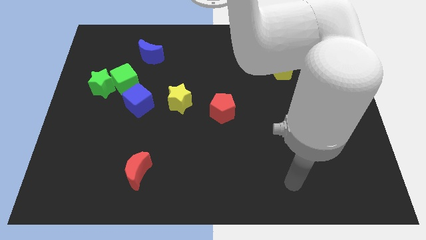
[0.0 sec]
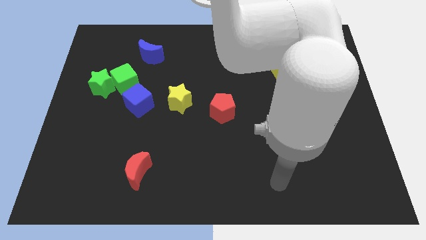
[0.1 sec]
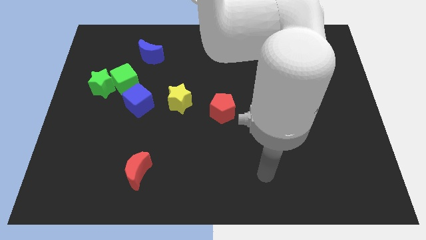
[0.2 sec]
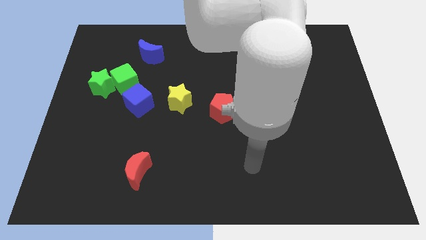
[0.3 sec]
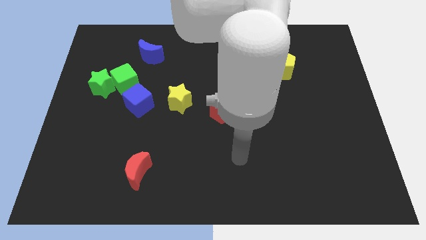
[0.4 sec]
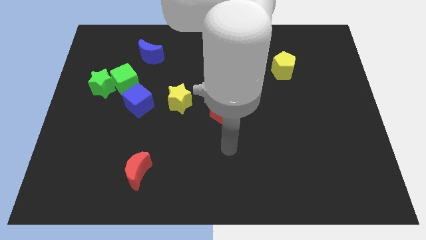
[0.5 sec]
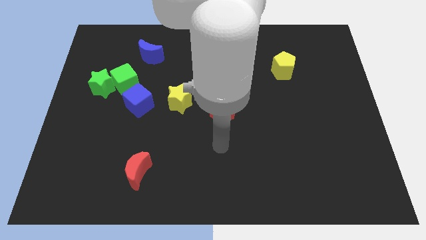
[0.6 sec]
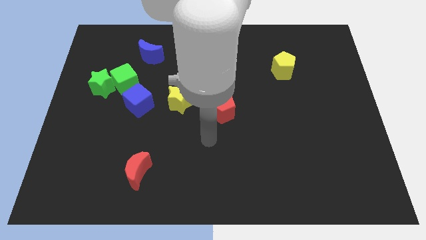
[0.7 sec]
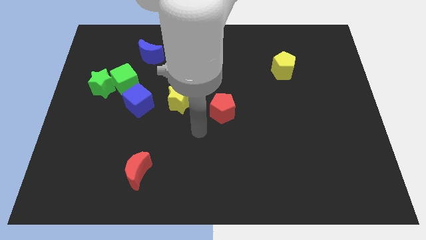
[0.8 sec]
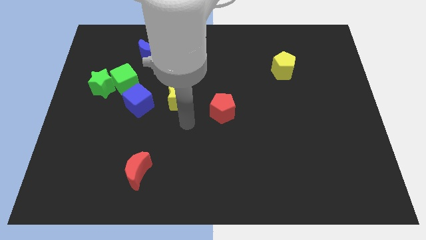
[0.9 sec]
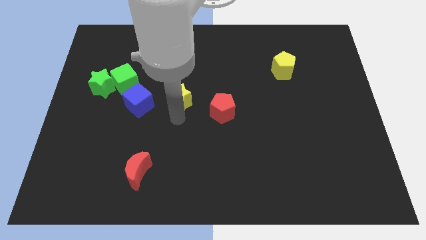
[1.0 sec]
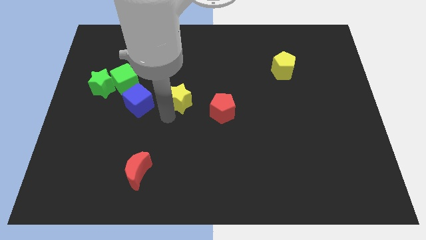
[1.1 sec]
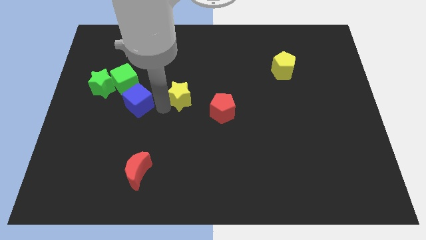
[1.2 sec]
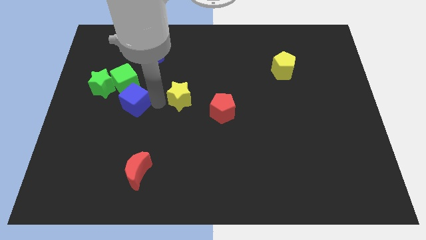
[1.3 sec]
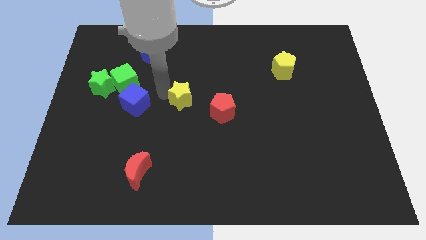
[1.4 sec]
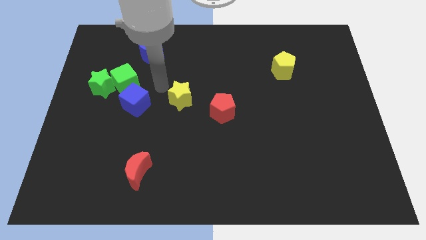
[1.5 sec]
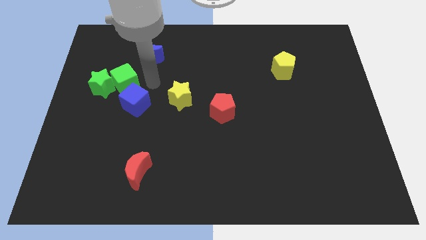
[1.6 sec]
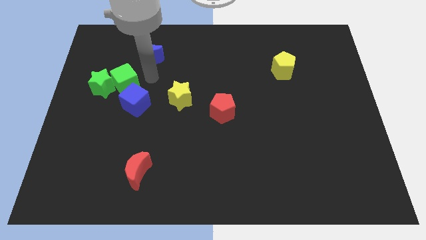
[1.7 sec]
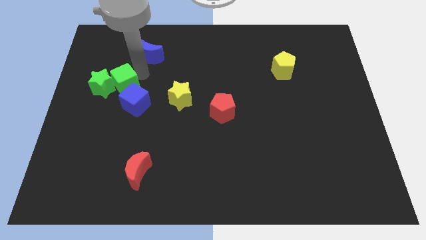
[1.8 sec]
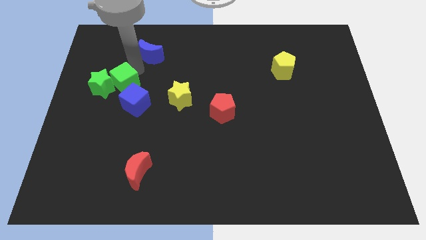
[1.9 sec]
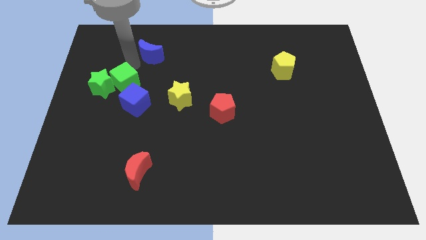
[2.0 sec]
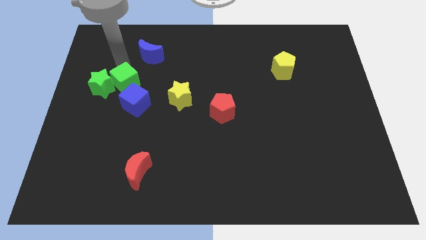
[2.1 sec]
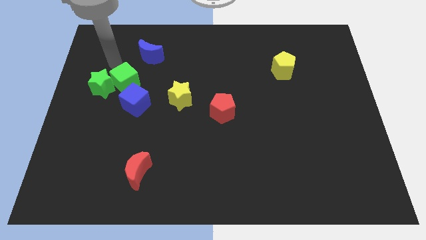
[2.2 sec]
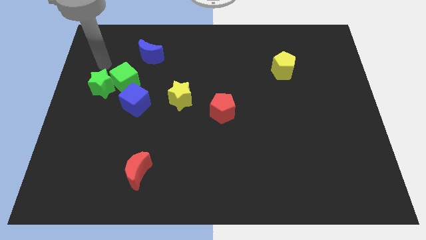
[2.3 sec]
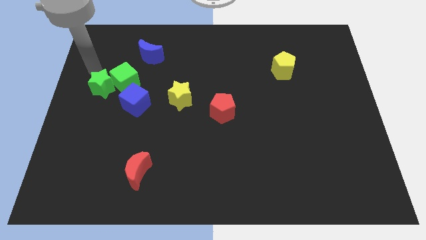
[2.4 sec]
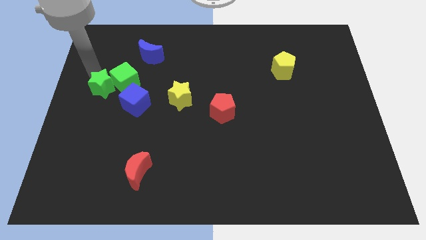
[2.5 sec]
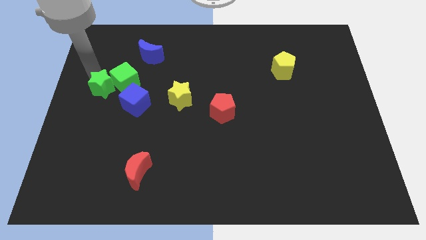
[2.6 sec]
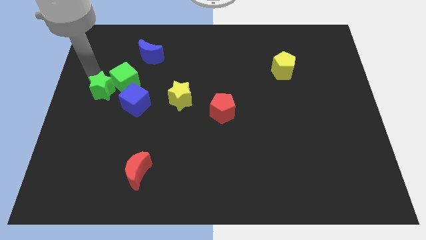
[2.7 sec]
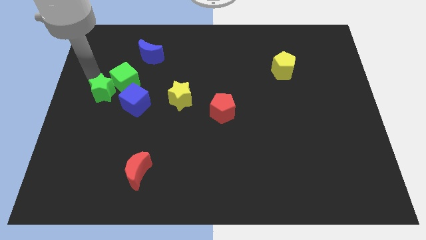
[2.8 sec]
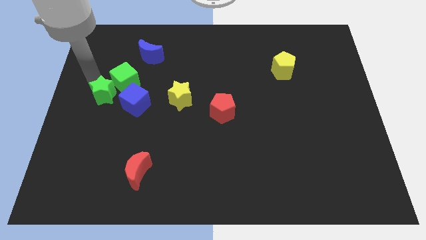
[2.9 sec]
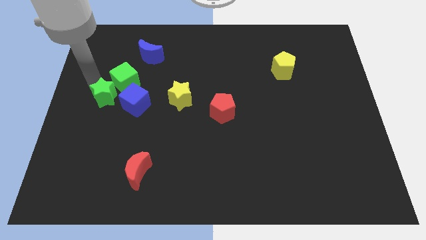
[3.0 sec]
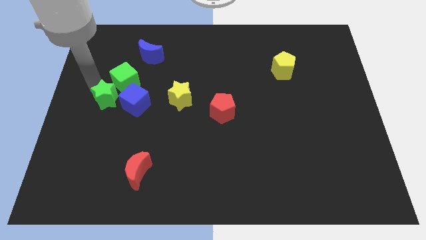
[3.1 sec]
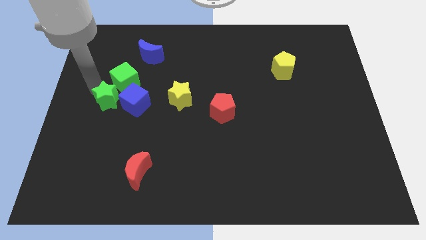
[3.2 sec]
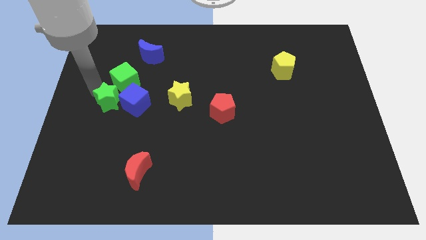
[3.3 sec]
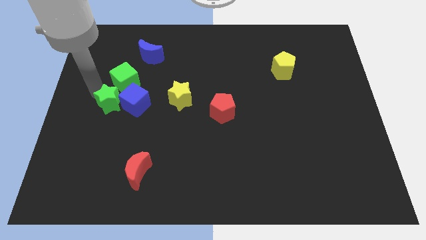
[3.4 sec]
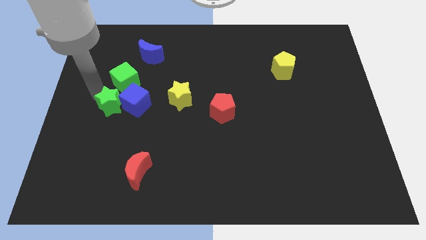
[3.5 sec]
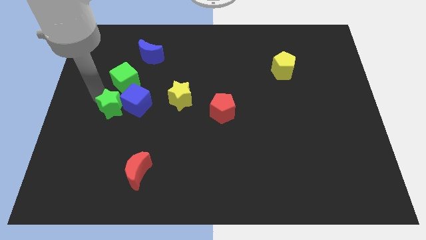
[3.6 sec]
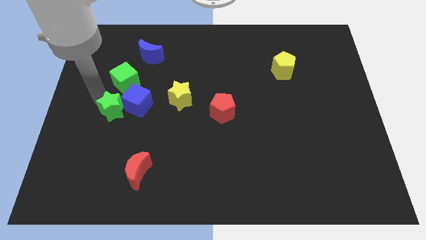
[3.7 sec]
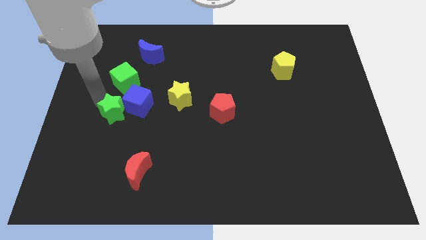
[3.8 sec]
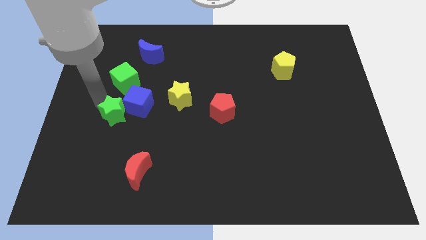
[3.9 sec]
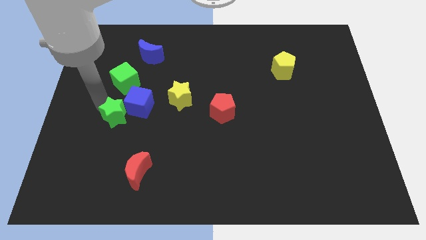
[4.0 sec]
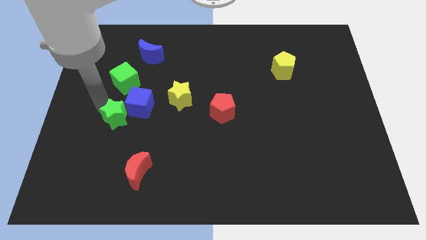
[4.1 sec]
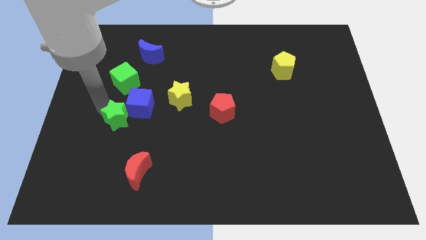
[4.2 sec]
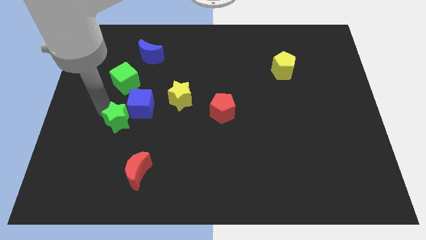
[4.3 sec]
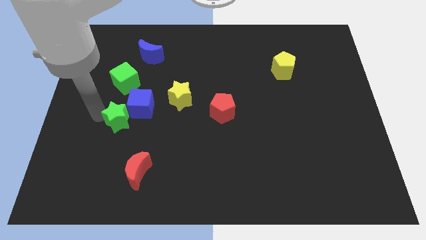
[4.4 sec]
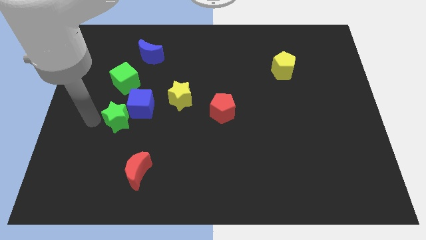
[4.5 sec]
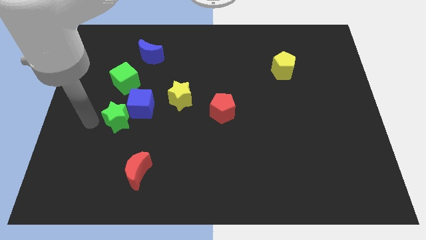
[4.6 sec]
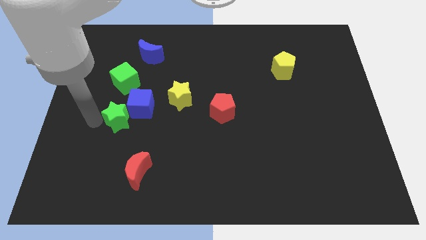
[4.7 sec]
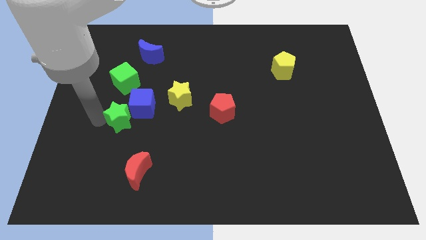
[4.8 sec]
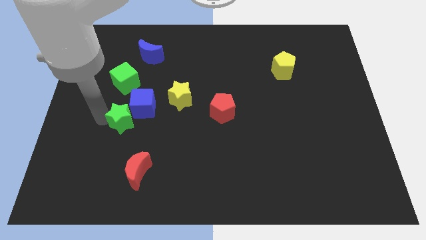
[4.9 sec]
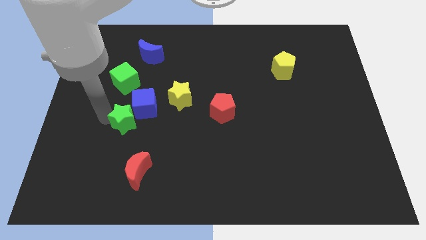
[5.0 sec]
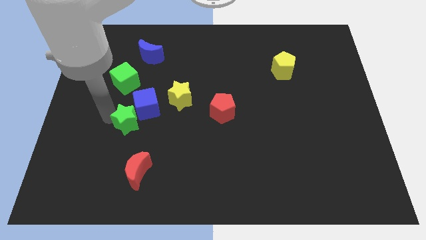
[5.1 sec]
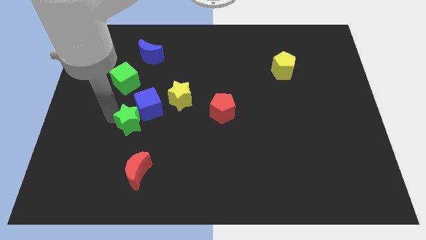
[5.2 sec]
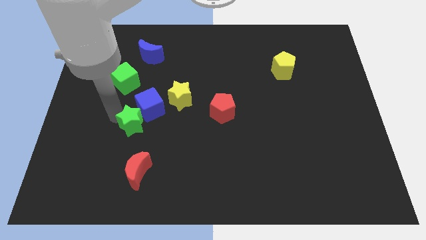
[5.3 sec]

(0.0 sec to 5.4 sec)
move the green star to the bottom left side of the yellow star

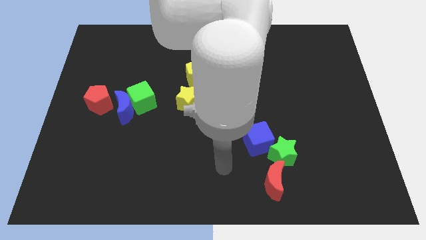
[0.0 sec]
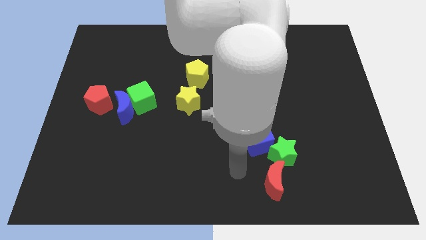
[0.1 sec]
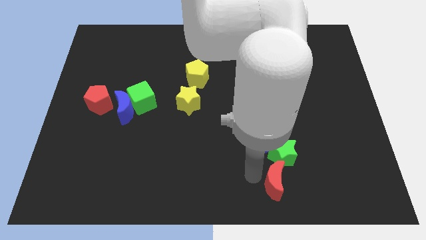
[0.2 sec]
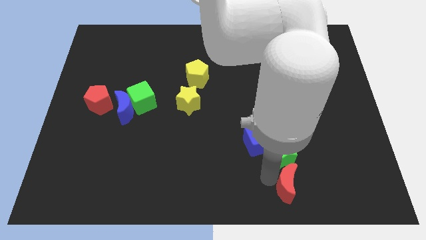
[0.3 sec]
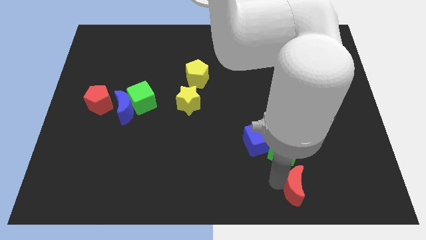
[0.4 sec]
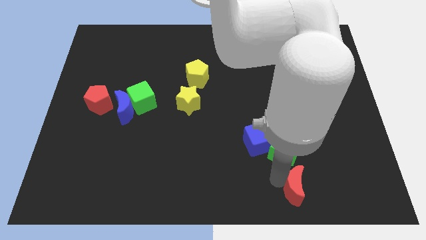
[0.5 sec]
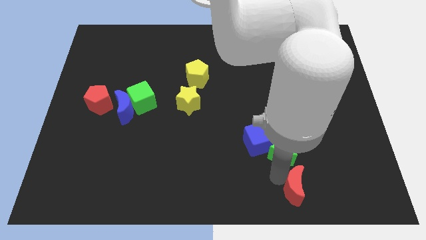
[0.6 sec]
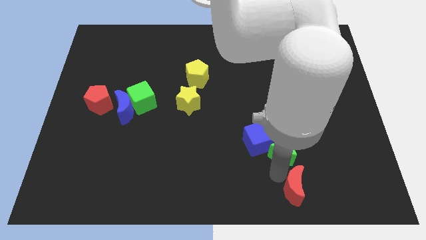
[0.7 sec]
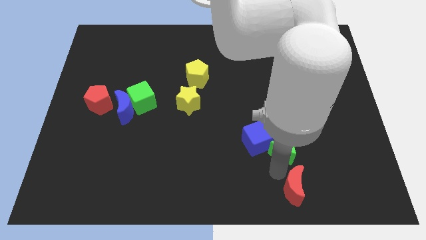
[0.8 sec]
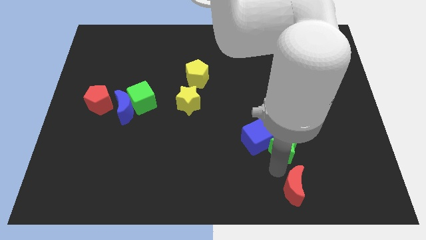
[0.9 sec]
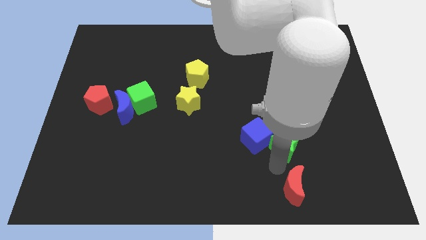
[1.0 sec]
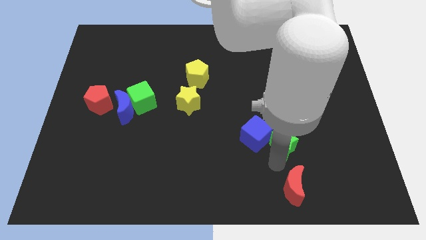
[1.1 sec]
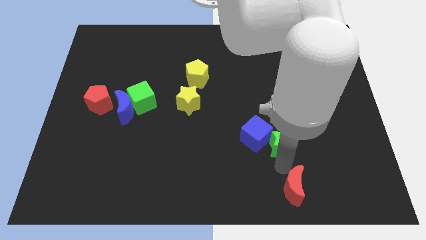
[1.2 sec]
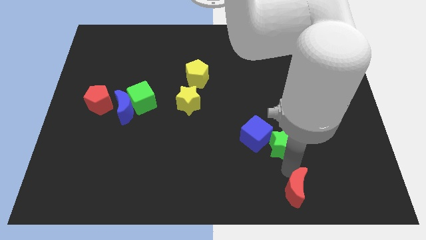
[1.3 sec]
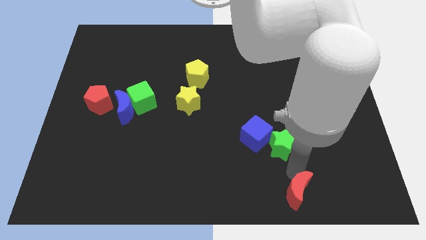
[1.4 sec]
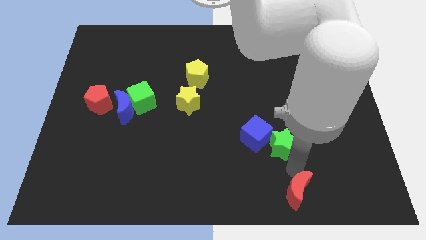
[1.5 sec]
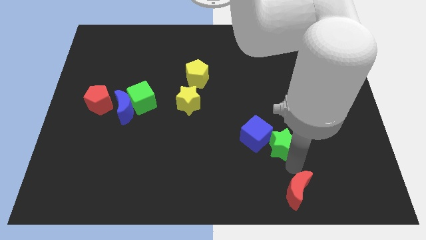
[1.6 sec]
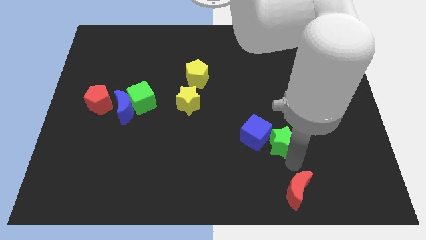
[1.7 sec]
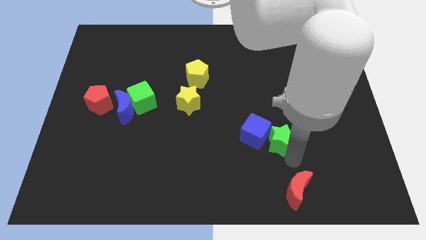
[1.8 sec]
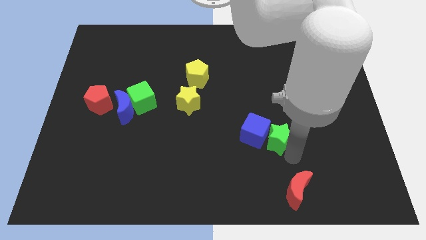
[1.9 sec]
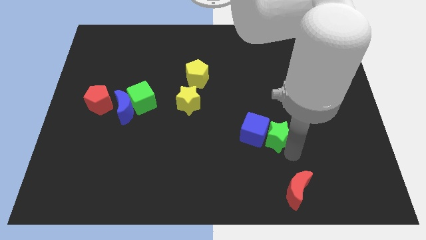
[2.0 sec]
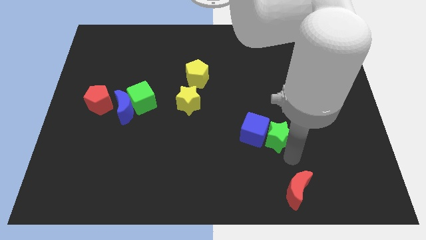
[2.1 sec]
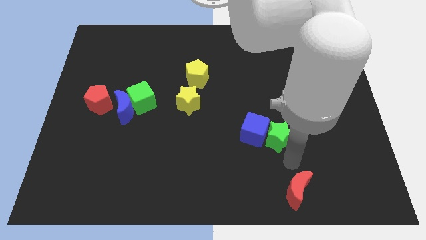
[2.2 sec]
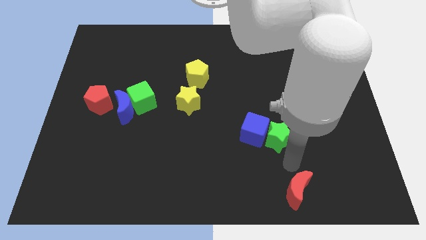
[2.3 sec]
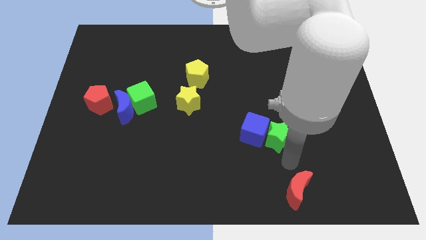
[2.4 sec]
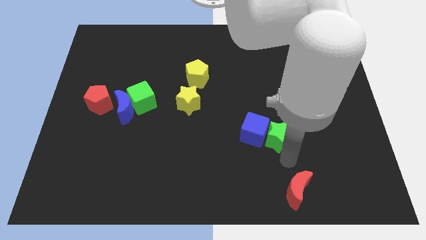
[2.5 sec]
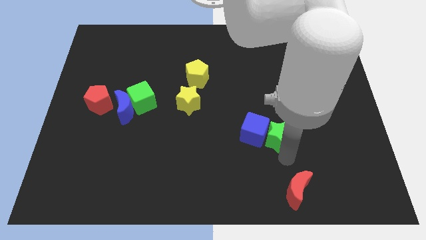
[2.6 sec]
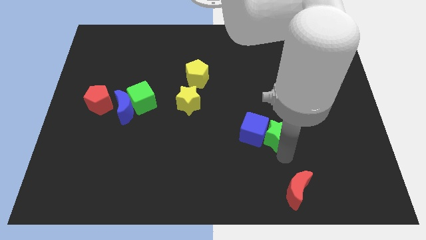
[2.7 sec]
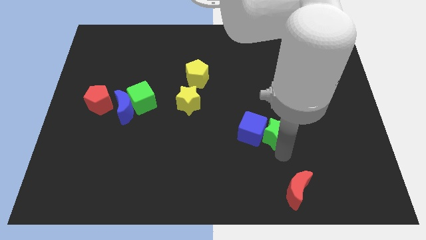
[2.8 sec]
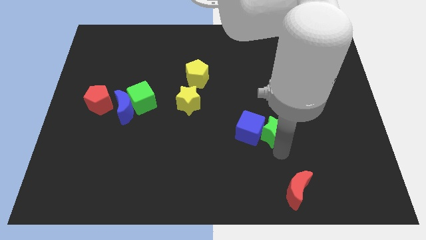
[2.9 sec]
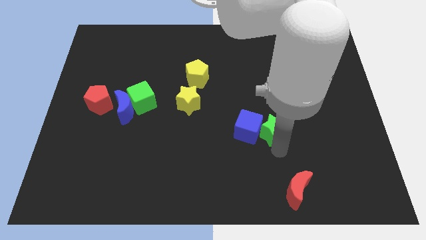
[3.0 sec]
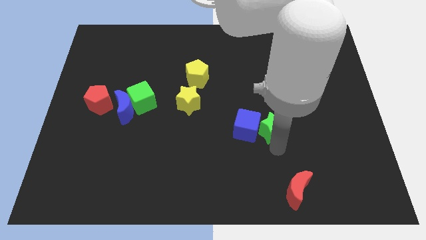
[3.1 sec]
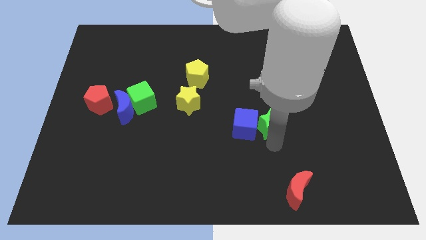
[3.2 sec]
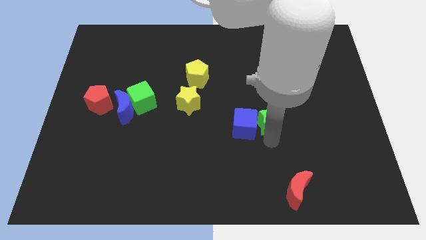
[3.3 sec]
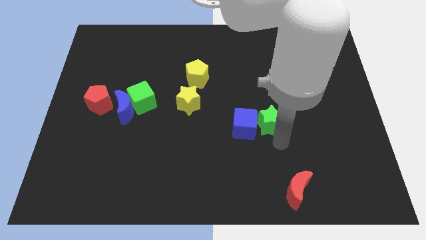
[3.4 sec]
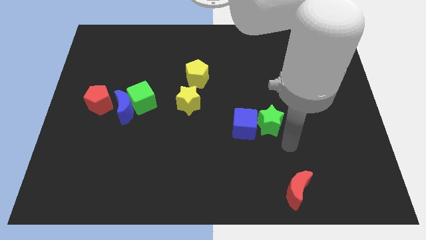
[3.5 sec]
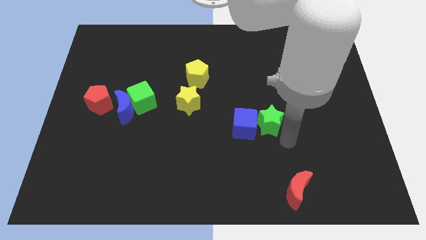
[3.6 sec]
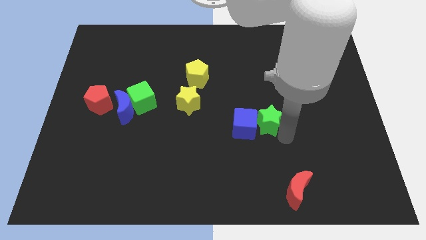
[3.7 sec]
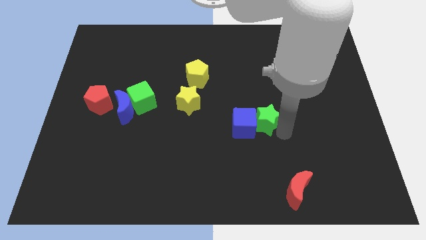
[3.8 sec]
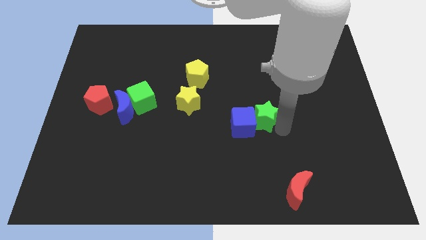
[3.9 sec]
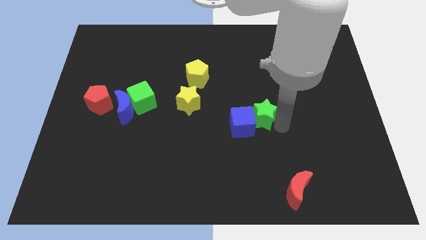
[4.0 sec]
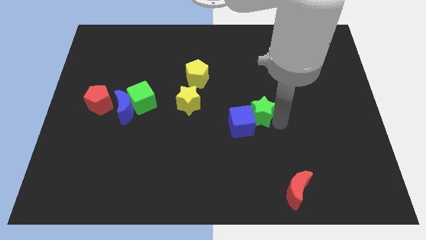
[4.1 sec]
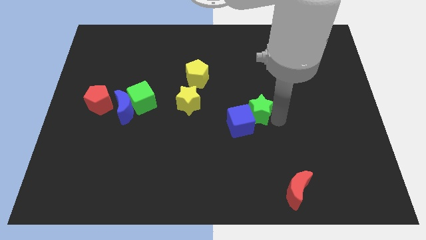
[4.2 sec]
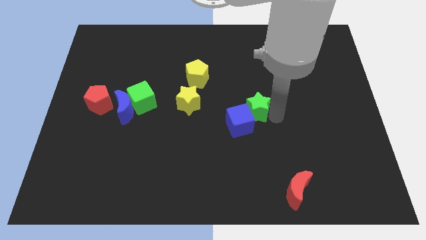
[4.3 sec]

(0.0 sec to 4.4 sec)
push the green star to the top side of the blue cube
